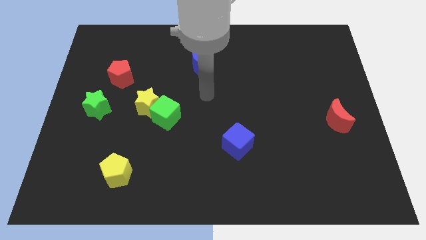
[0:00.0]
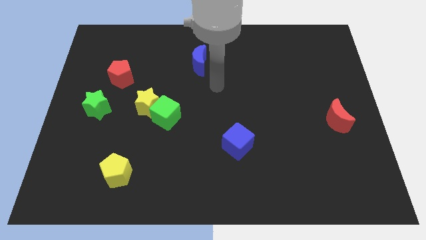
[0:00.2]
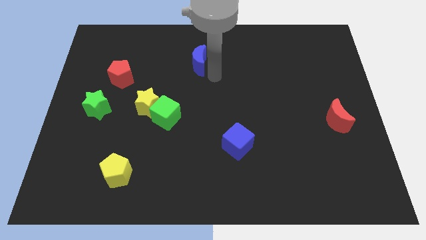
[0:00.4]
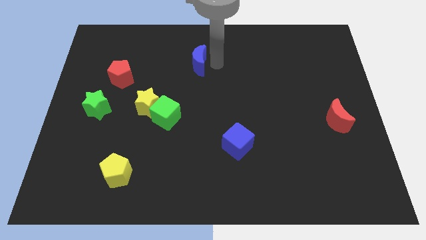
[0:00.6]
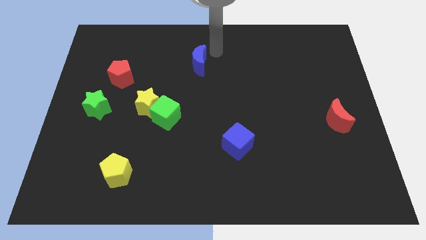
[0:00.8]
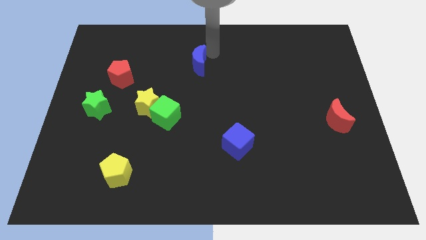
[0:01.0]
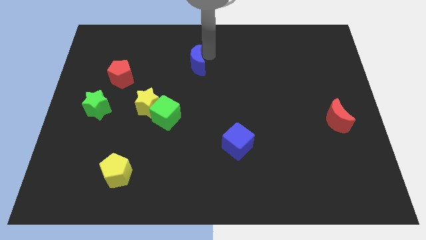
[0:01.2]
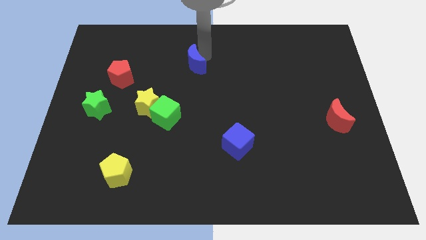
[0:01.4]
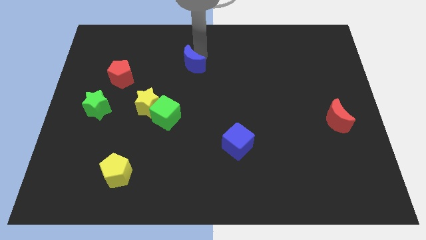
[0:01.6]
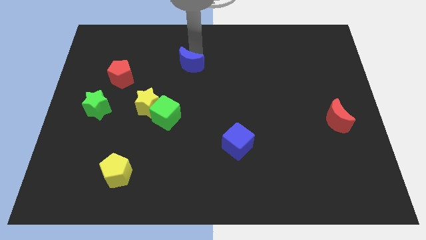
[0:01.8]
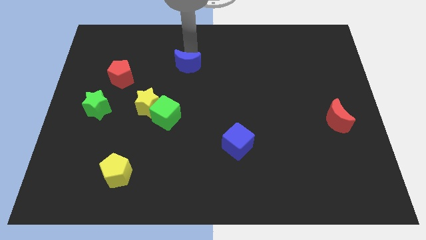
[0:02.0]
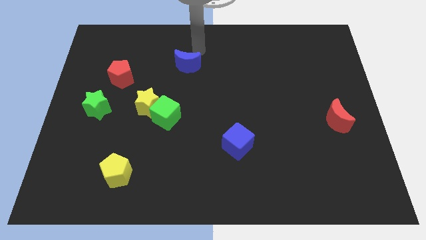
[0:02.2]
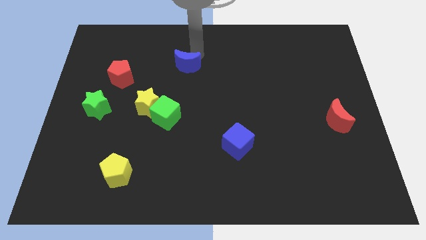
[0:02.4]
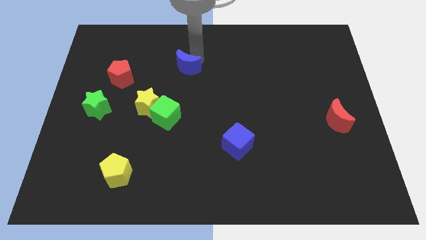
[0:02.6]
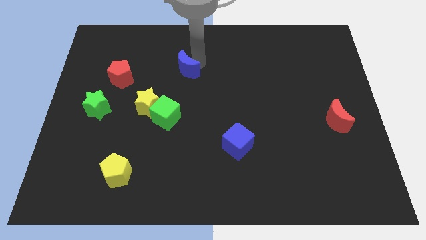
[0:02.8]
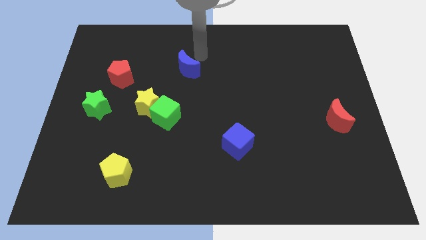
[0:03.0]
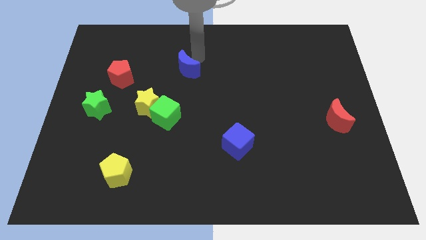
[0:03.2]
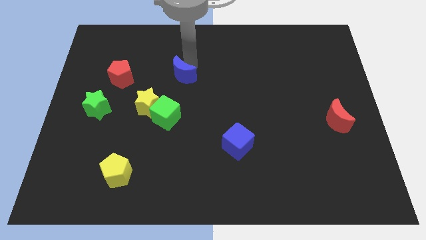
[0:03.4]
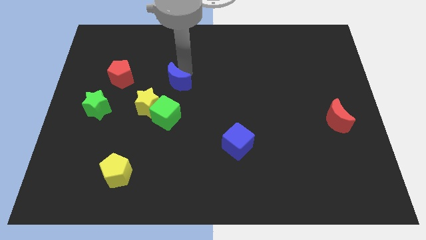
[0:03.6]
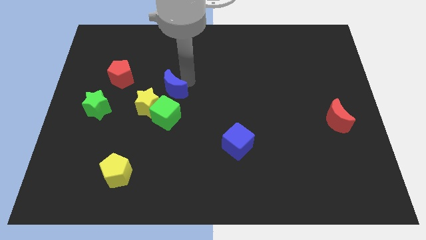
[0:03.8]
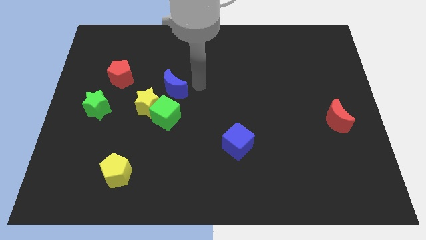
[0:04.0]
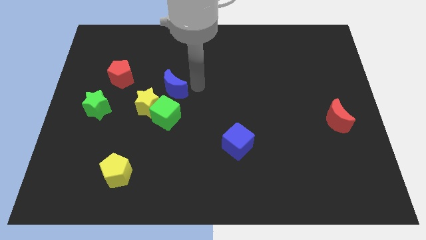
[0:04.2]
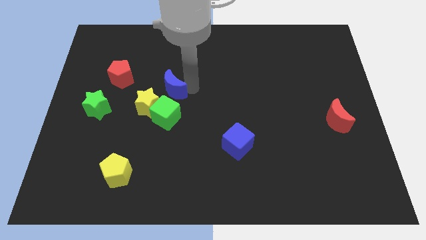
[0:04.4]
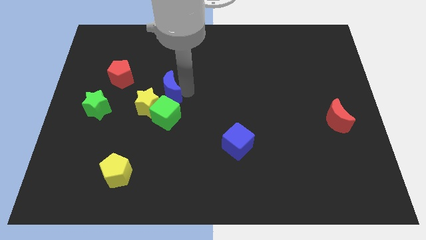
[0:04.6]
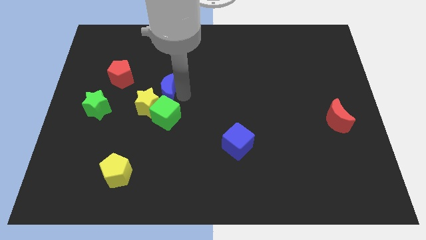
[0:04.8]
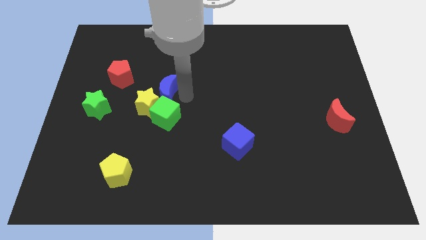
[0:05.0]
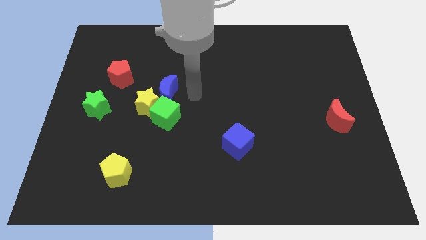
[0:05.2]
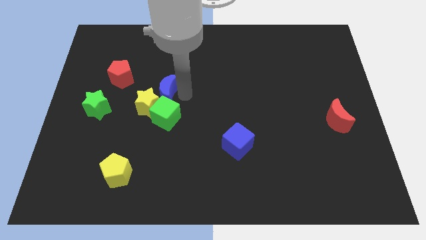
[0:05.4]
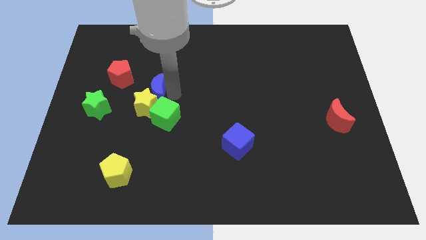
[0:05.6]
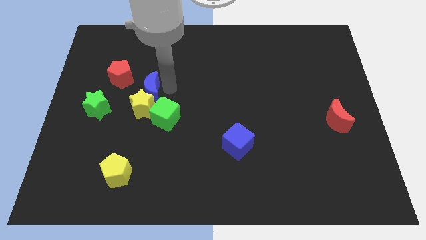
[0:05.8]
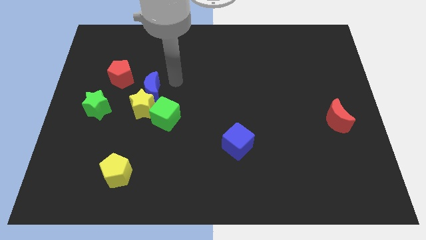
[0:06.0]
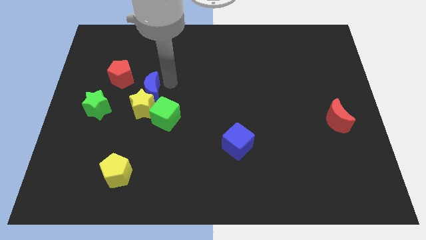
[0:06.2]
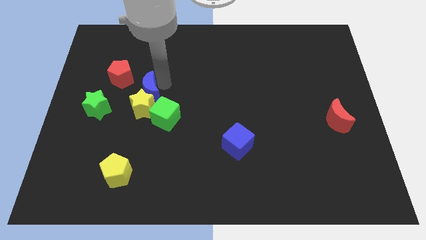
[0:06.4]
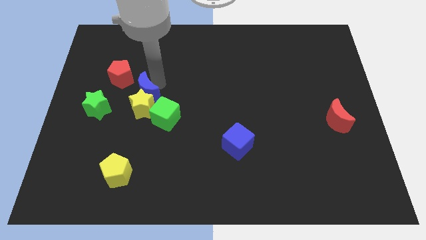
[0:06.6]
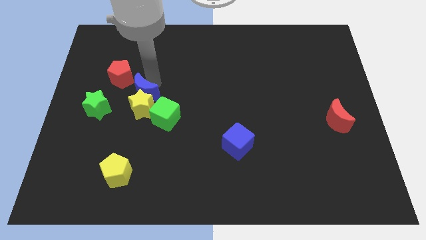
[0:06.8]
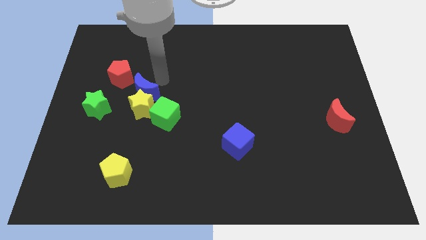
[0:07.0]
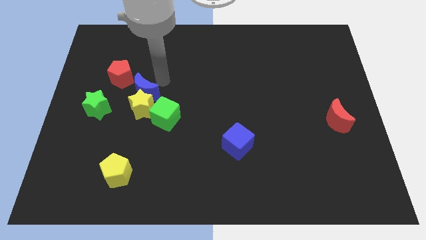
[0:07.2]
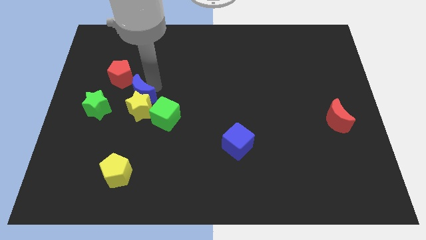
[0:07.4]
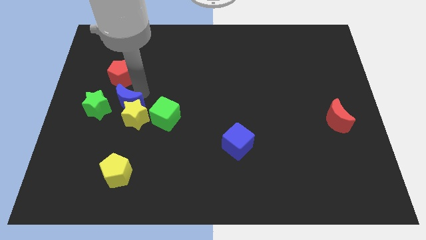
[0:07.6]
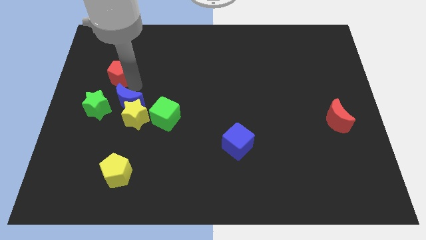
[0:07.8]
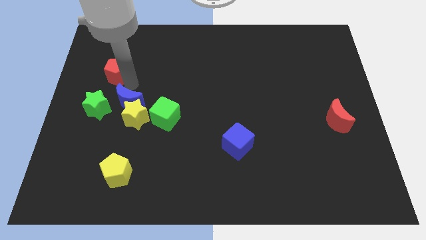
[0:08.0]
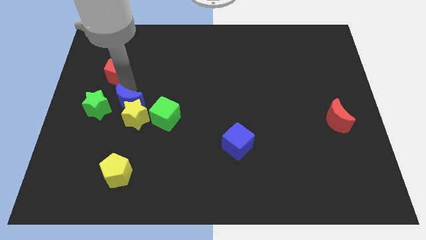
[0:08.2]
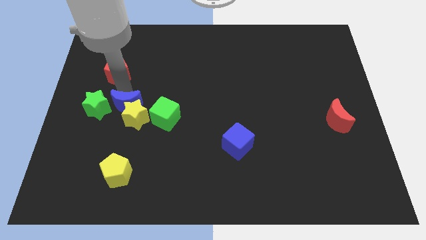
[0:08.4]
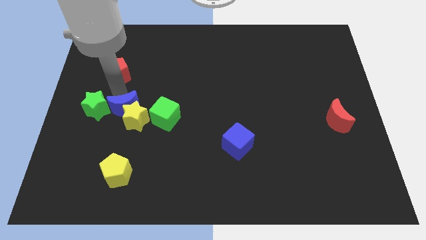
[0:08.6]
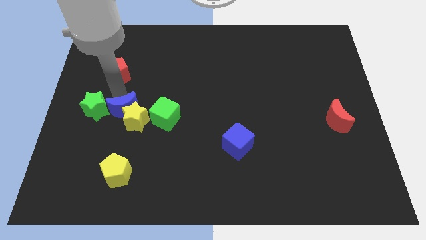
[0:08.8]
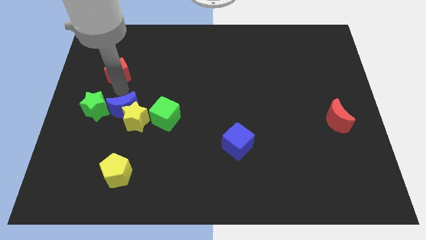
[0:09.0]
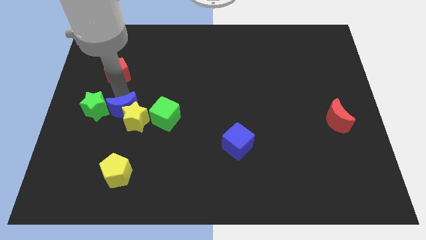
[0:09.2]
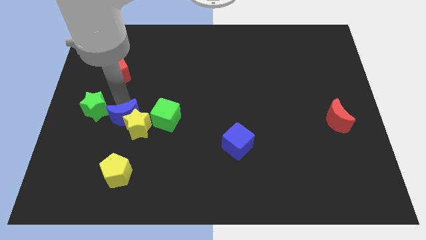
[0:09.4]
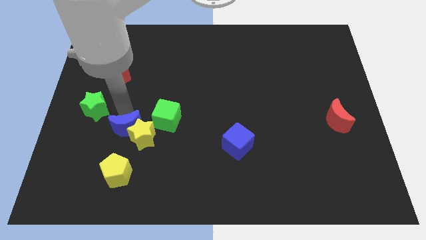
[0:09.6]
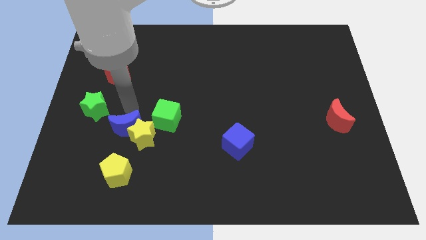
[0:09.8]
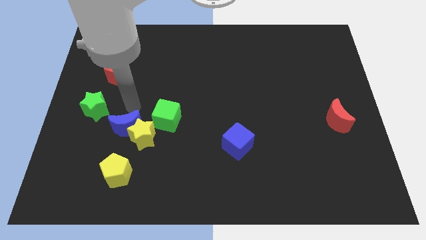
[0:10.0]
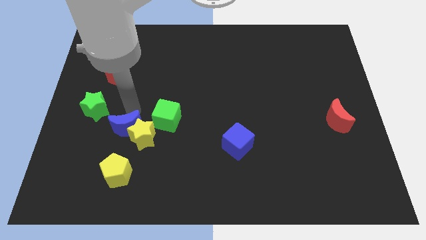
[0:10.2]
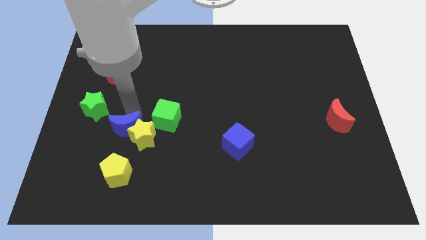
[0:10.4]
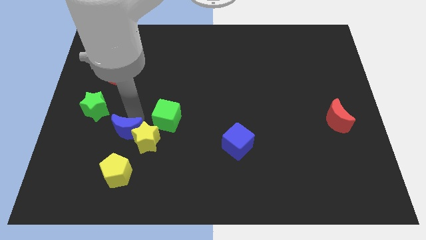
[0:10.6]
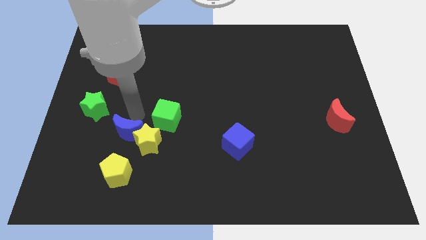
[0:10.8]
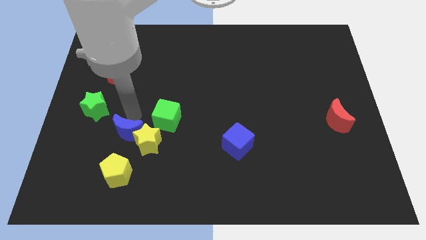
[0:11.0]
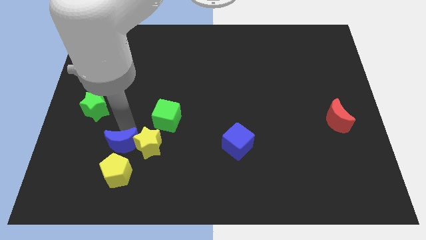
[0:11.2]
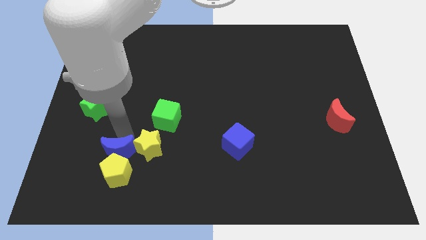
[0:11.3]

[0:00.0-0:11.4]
move the blue moon to the yellow pentagon

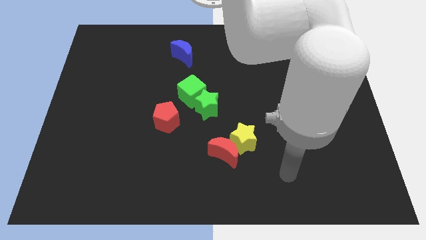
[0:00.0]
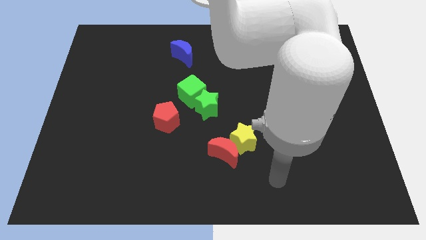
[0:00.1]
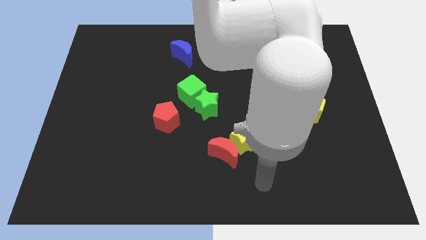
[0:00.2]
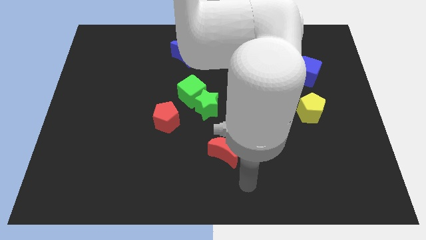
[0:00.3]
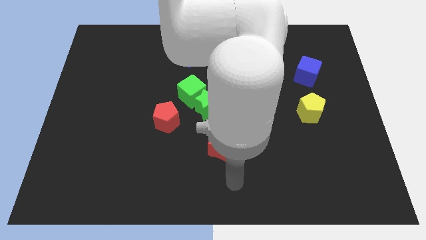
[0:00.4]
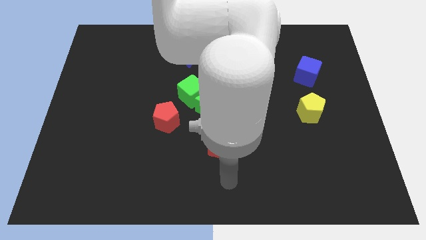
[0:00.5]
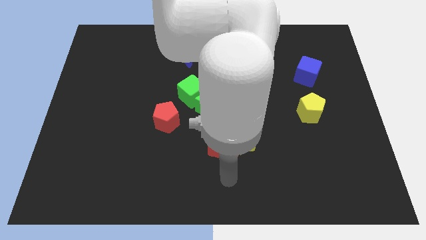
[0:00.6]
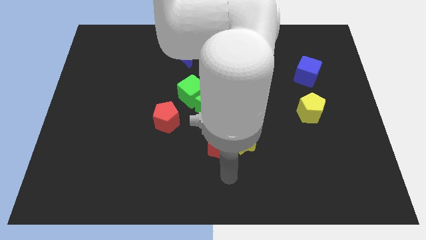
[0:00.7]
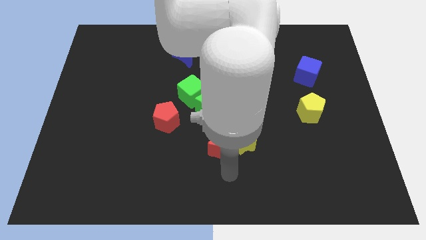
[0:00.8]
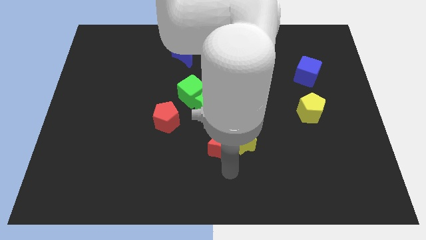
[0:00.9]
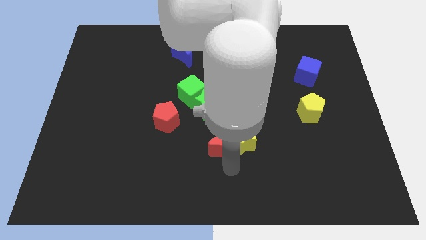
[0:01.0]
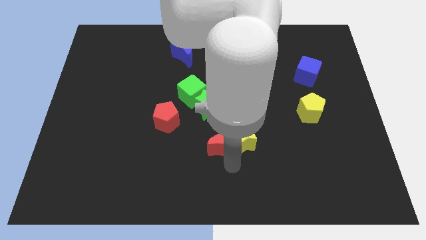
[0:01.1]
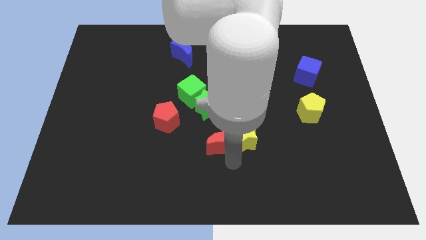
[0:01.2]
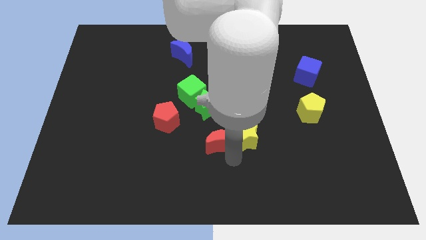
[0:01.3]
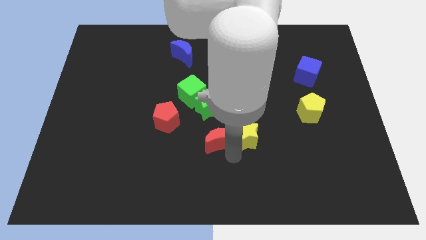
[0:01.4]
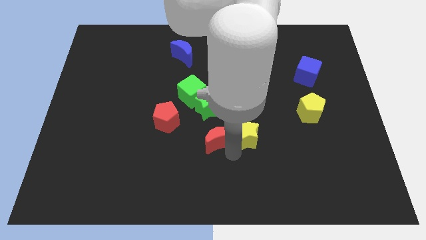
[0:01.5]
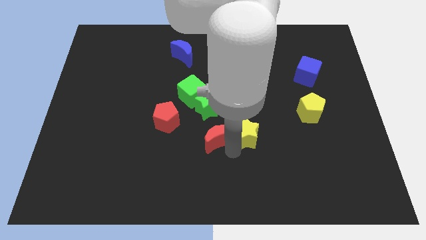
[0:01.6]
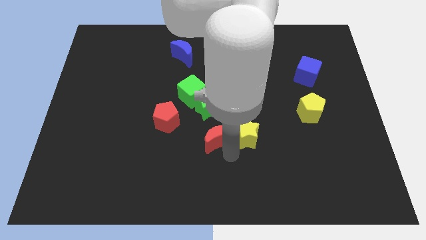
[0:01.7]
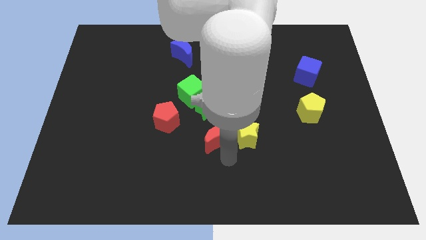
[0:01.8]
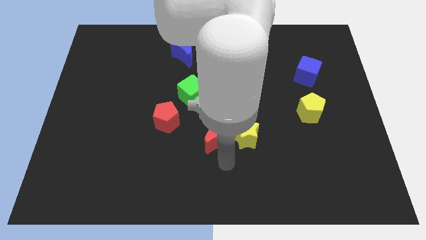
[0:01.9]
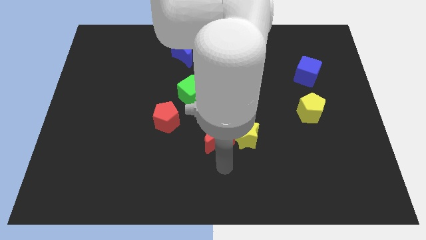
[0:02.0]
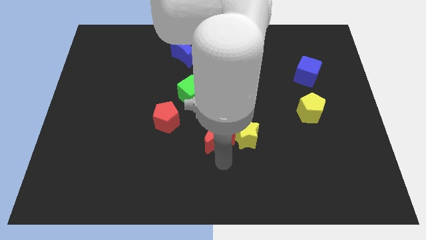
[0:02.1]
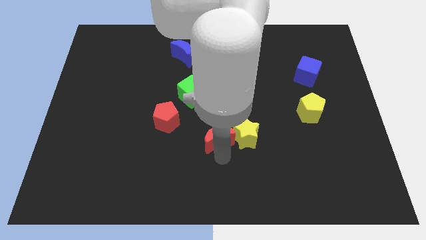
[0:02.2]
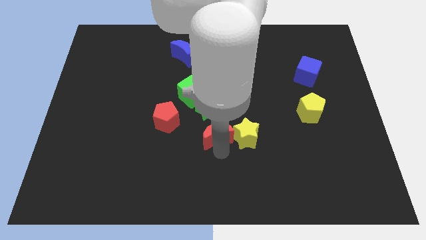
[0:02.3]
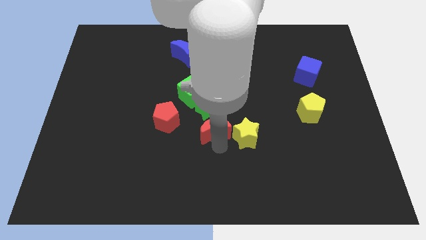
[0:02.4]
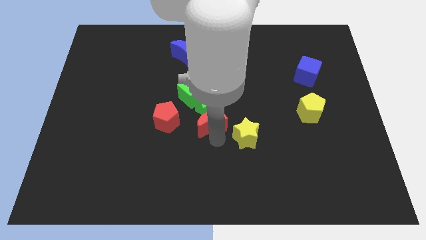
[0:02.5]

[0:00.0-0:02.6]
push the red moon close to the green star
